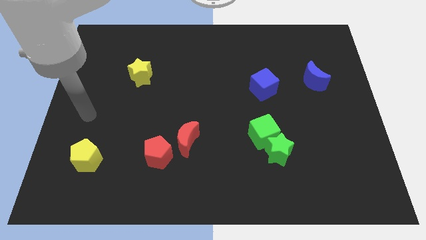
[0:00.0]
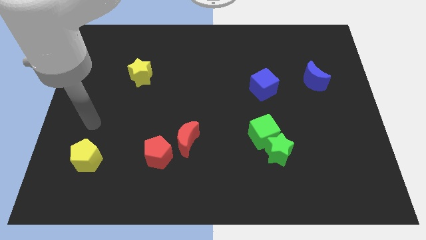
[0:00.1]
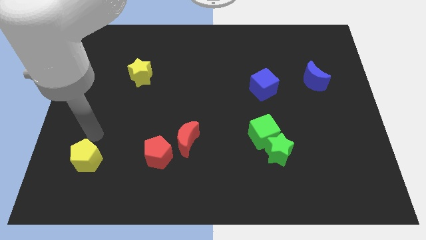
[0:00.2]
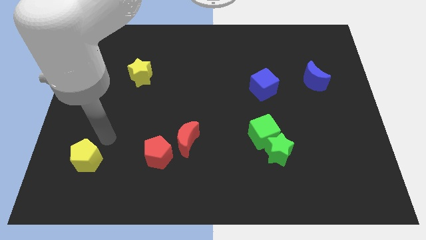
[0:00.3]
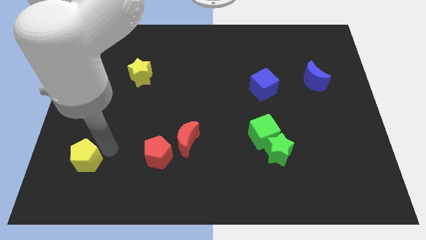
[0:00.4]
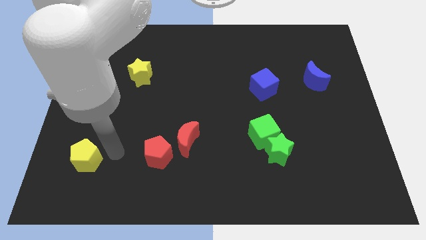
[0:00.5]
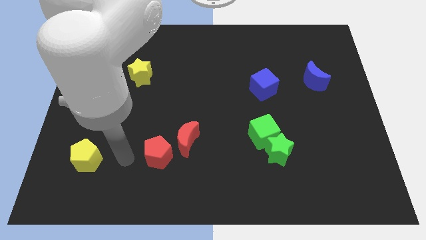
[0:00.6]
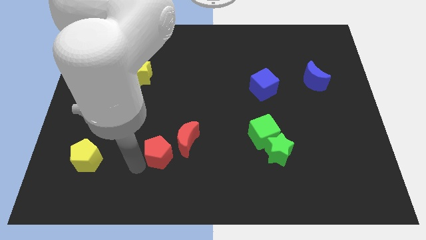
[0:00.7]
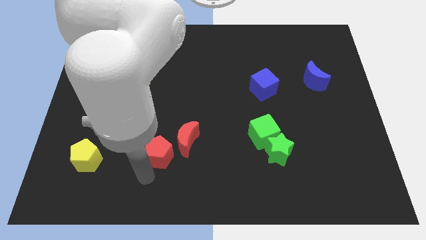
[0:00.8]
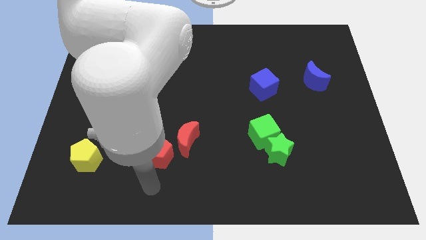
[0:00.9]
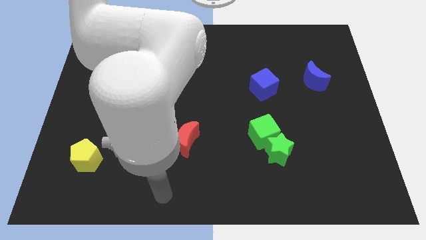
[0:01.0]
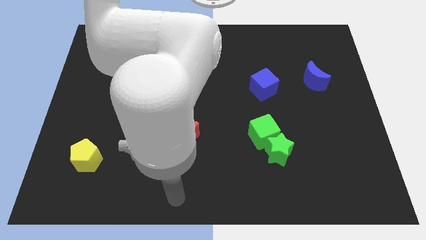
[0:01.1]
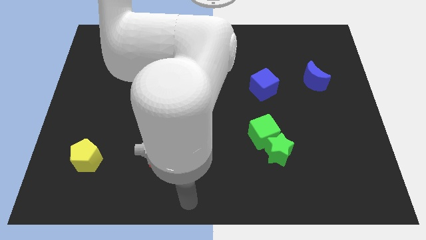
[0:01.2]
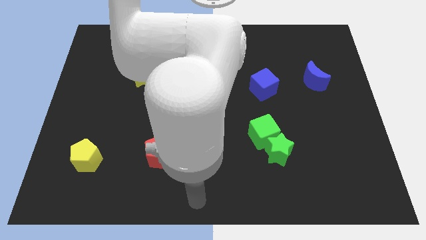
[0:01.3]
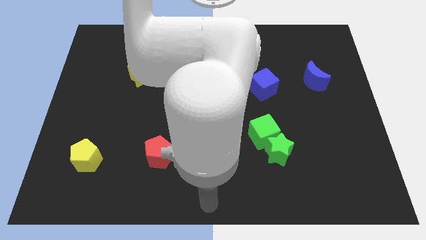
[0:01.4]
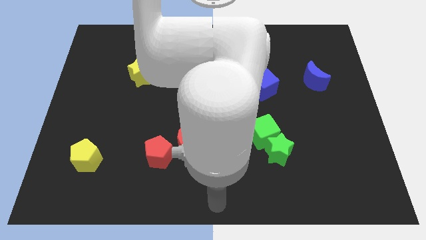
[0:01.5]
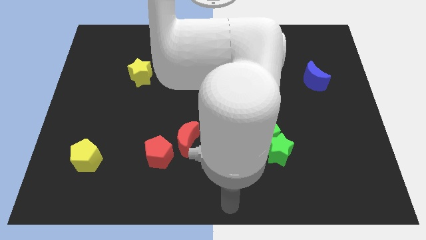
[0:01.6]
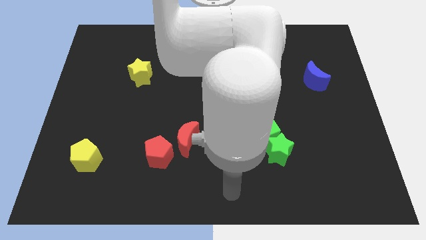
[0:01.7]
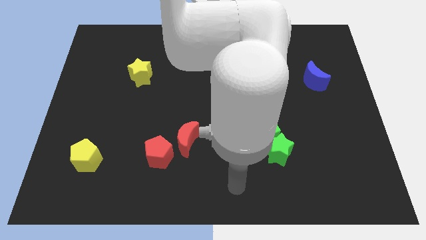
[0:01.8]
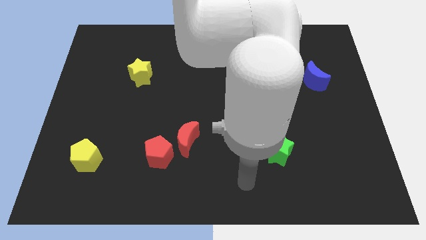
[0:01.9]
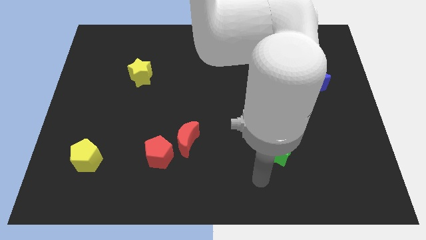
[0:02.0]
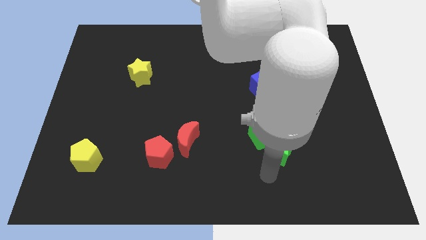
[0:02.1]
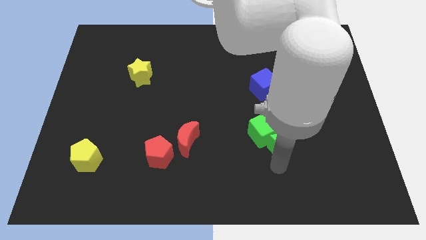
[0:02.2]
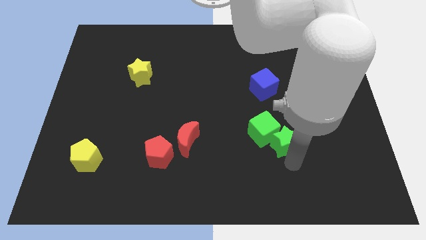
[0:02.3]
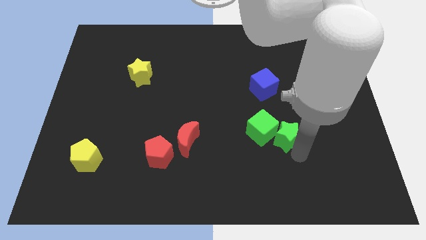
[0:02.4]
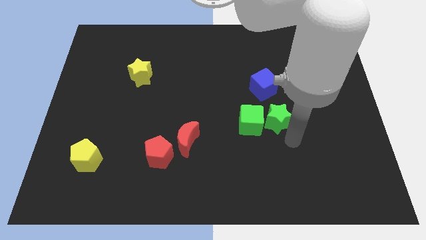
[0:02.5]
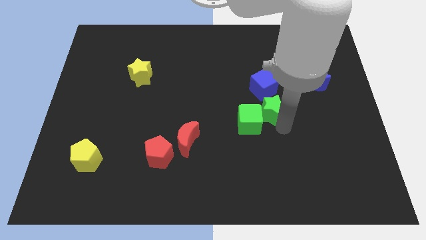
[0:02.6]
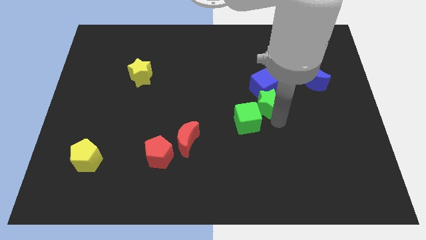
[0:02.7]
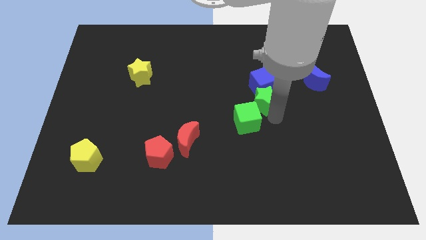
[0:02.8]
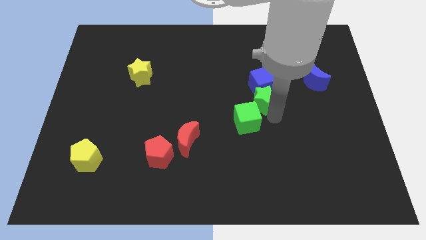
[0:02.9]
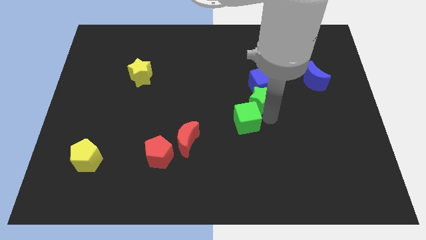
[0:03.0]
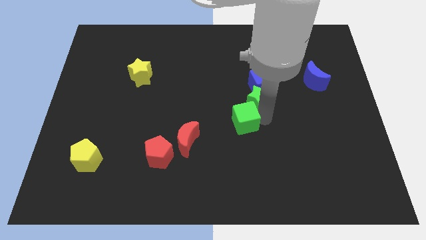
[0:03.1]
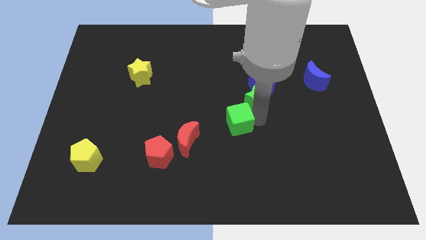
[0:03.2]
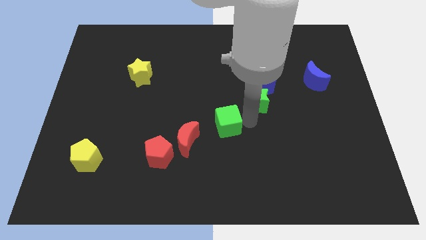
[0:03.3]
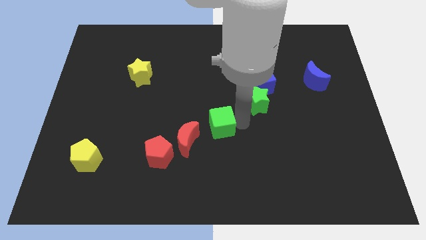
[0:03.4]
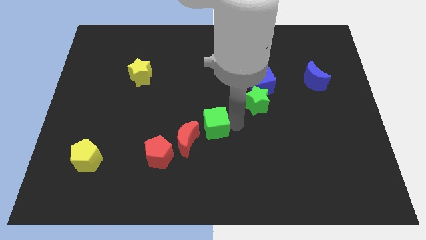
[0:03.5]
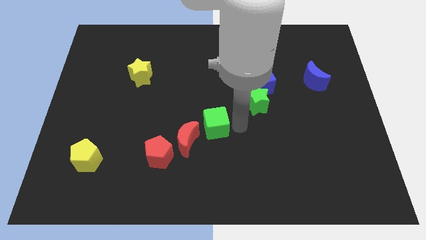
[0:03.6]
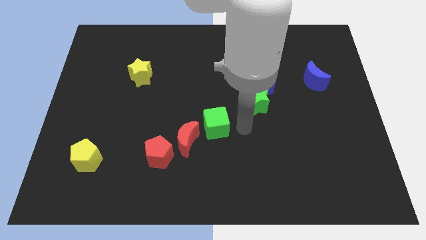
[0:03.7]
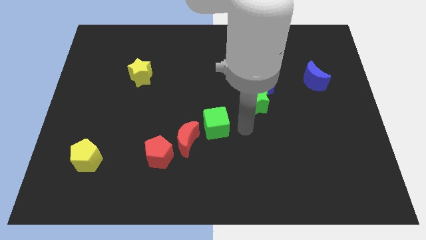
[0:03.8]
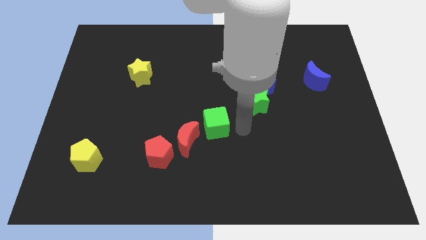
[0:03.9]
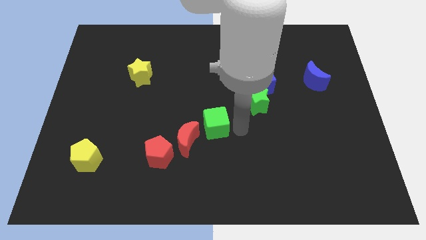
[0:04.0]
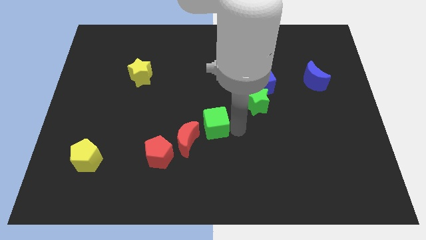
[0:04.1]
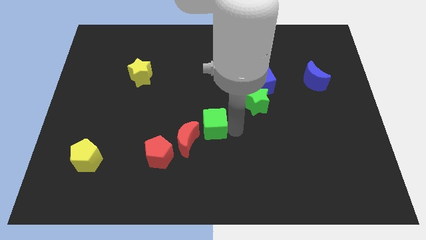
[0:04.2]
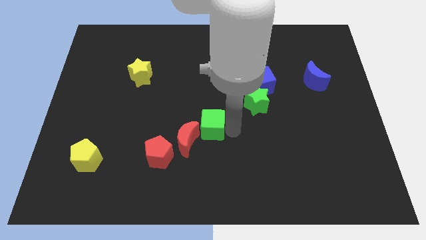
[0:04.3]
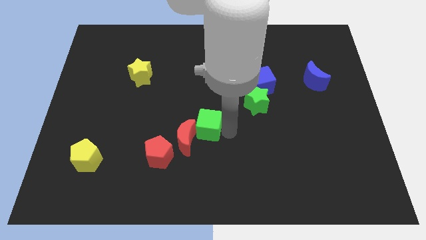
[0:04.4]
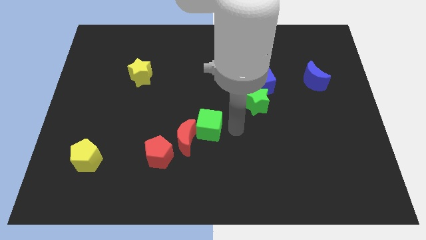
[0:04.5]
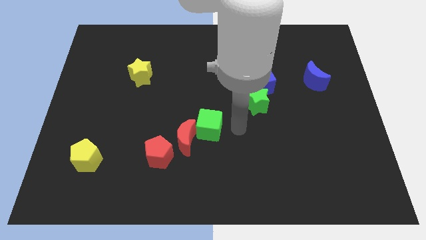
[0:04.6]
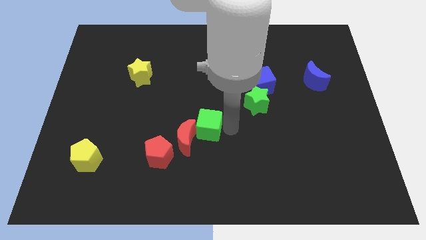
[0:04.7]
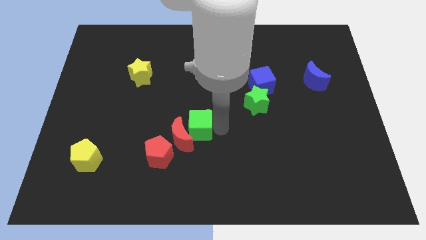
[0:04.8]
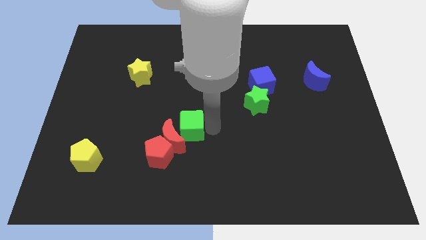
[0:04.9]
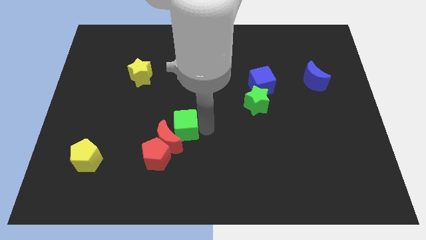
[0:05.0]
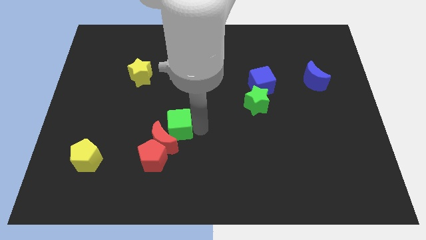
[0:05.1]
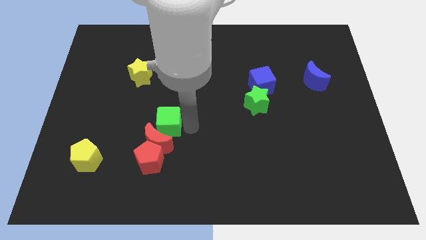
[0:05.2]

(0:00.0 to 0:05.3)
push the green cube to the left

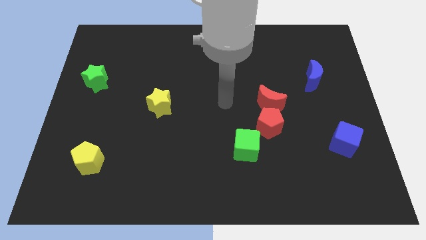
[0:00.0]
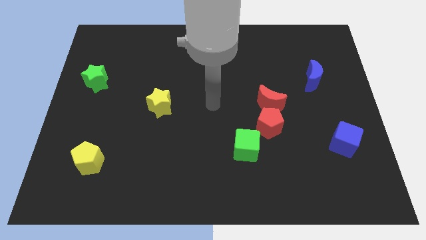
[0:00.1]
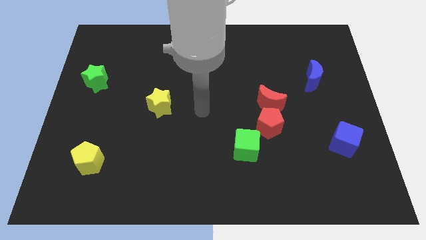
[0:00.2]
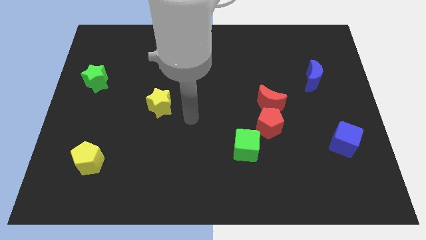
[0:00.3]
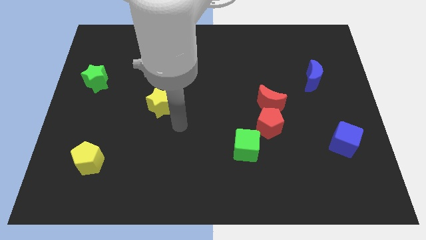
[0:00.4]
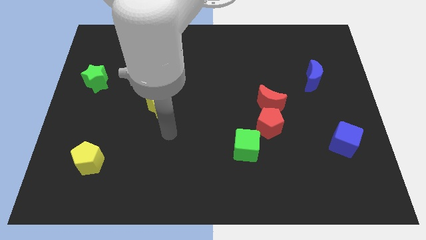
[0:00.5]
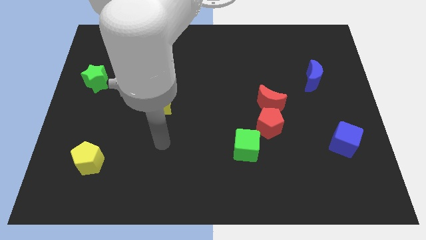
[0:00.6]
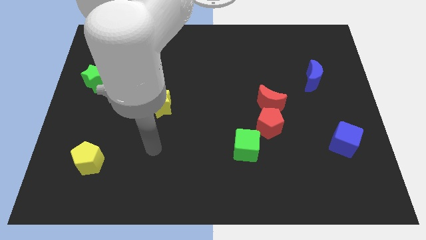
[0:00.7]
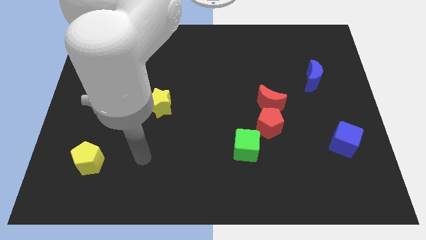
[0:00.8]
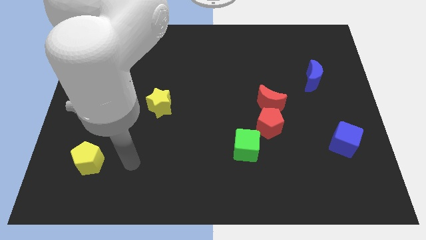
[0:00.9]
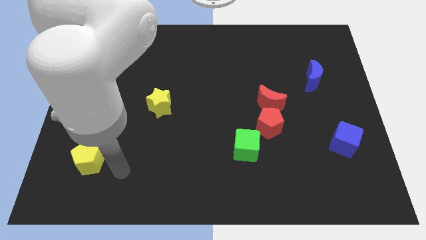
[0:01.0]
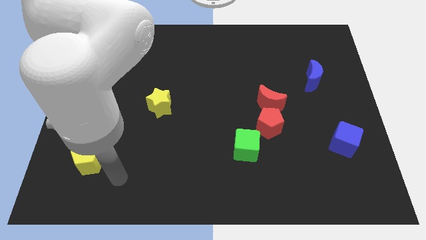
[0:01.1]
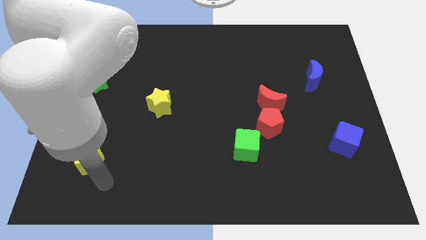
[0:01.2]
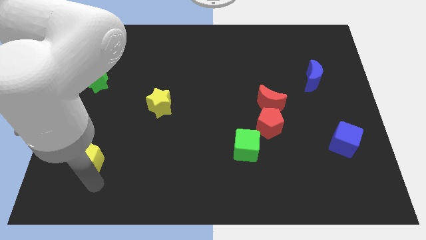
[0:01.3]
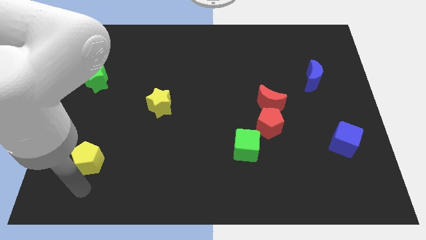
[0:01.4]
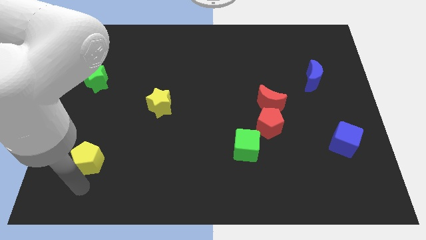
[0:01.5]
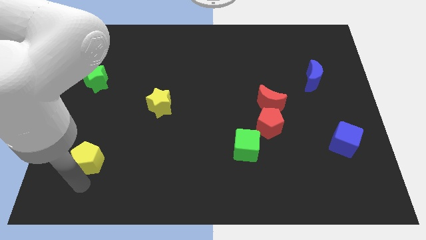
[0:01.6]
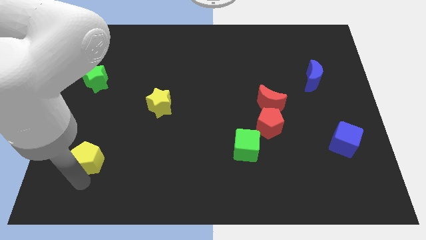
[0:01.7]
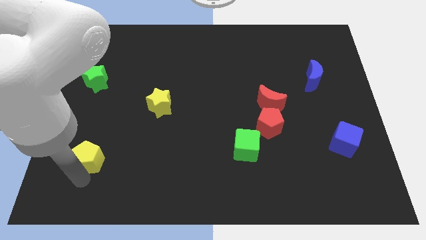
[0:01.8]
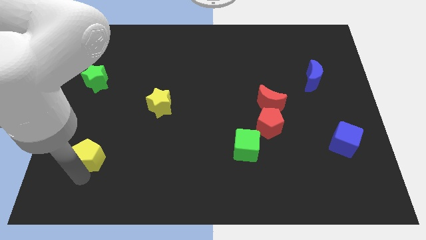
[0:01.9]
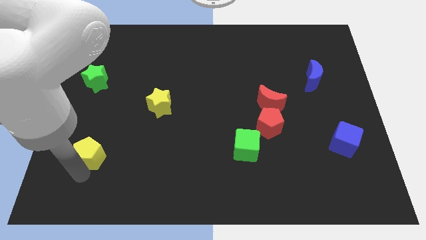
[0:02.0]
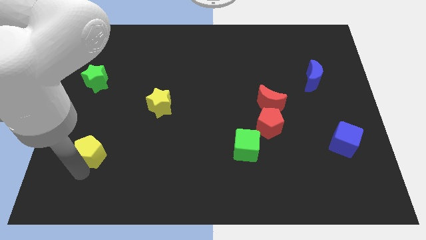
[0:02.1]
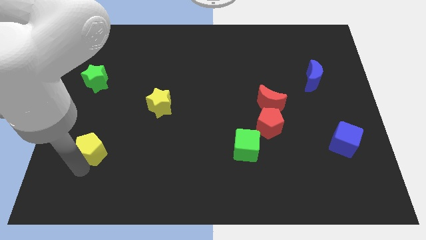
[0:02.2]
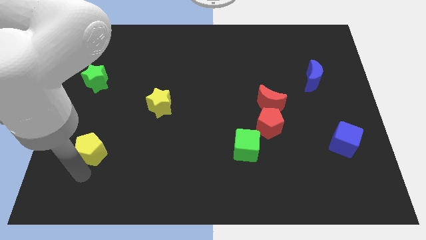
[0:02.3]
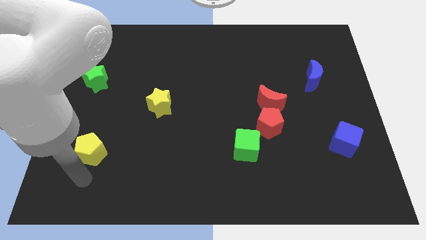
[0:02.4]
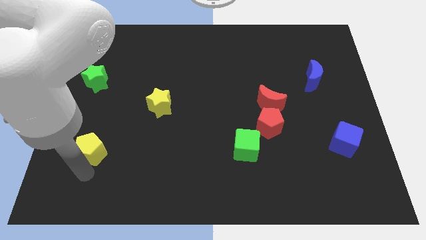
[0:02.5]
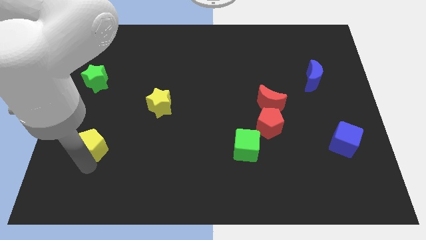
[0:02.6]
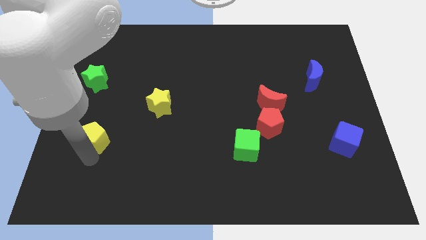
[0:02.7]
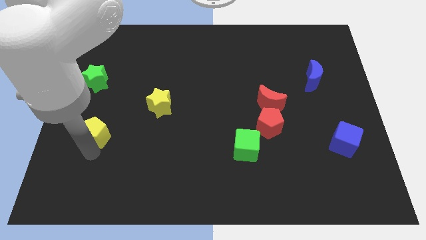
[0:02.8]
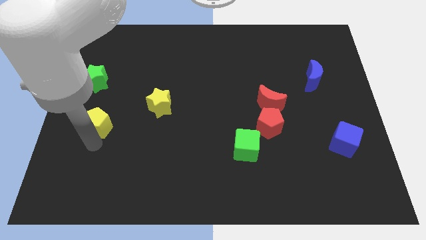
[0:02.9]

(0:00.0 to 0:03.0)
push the yellow pentagon a little upwards
